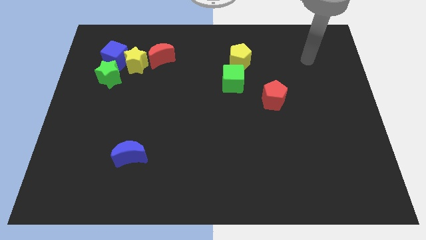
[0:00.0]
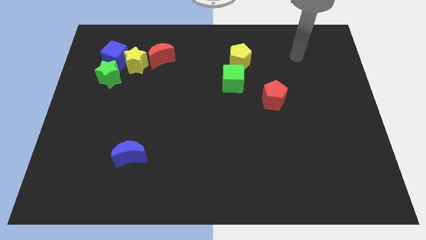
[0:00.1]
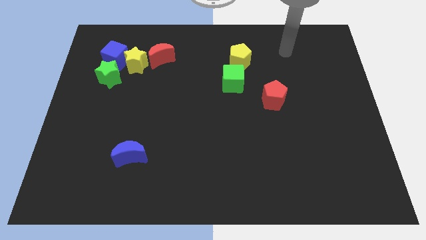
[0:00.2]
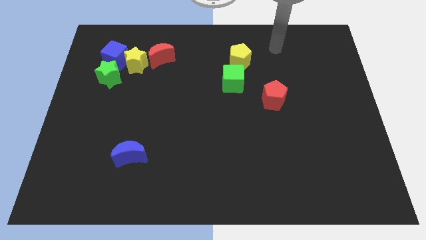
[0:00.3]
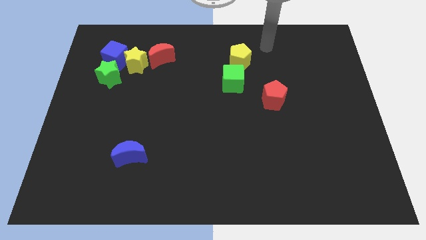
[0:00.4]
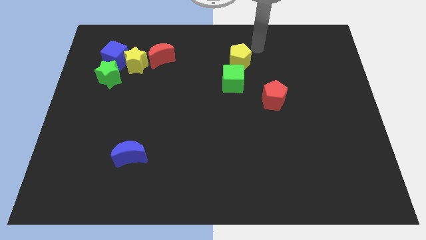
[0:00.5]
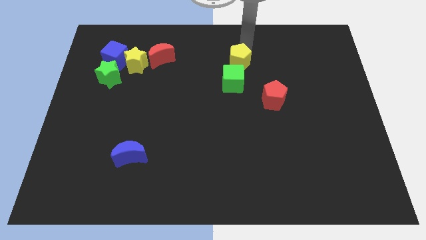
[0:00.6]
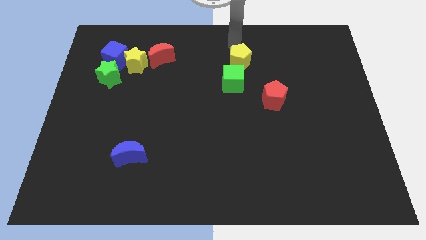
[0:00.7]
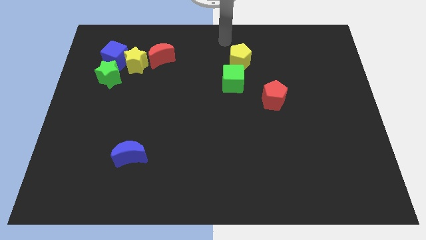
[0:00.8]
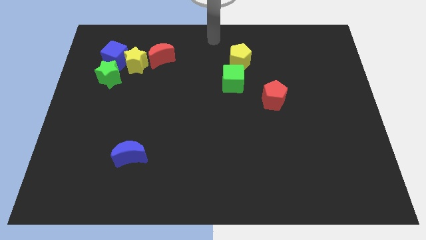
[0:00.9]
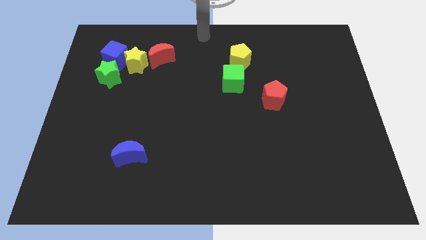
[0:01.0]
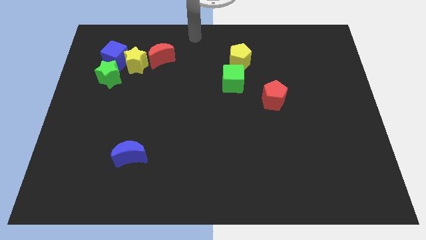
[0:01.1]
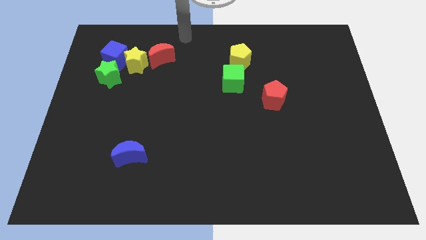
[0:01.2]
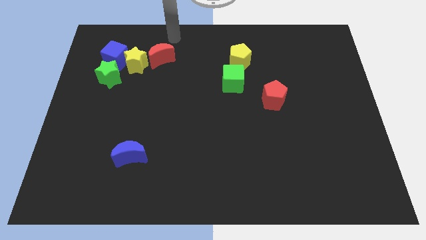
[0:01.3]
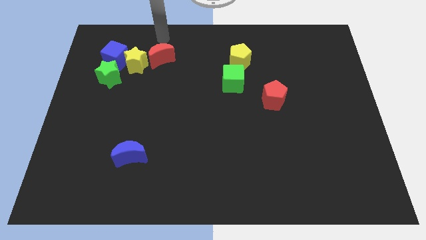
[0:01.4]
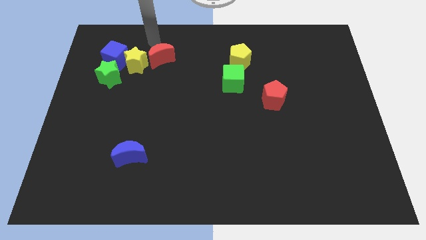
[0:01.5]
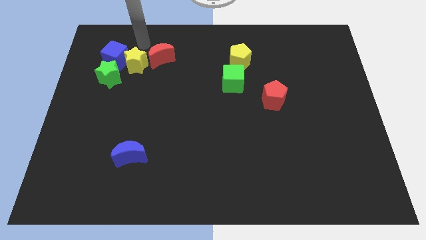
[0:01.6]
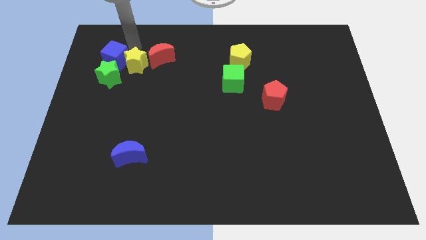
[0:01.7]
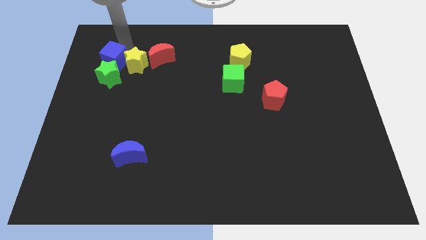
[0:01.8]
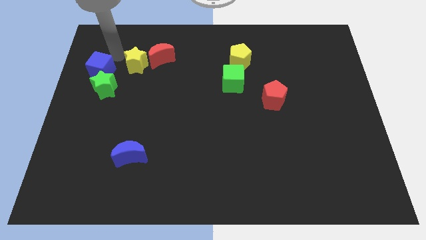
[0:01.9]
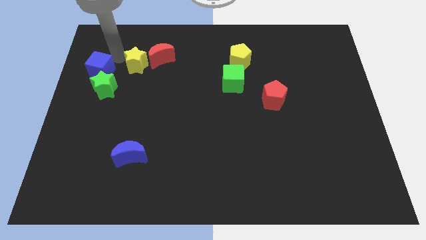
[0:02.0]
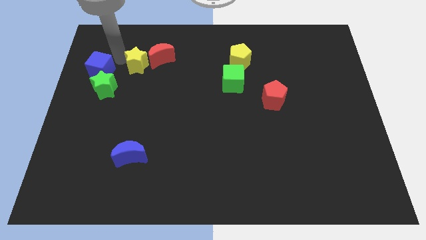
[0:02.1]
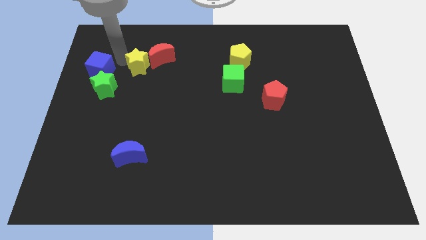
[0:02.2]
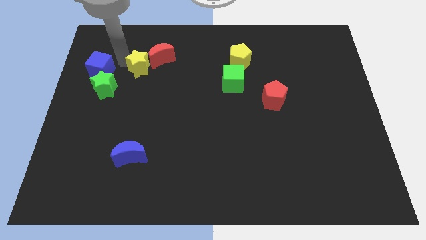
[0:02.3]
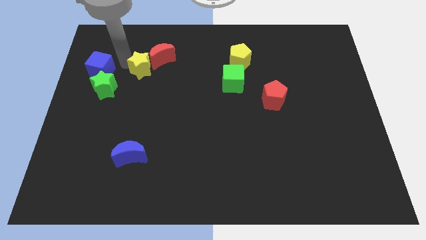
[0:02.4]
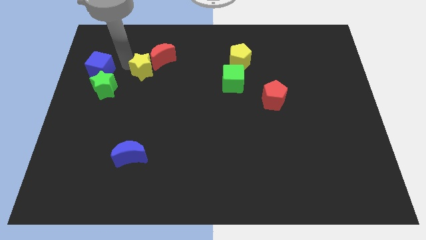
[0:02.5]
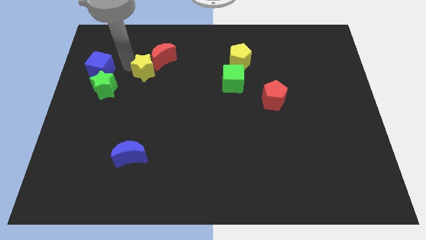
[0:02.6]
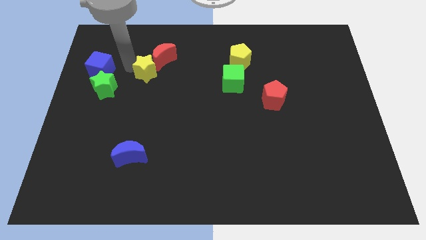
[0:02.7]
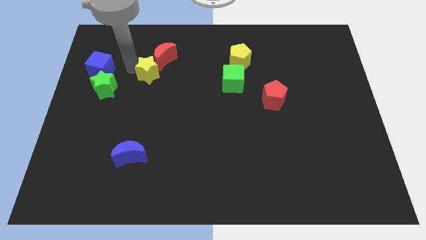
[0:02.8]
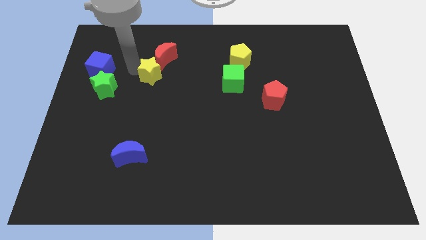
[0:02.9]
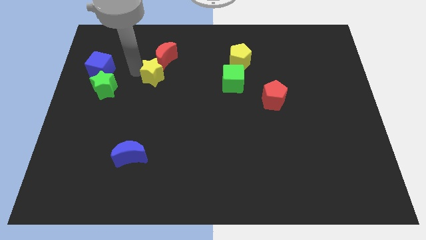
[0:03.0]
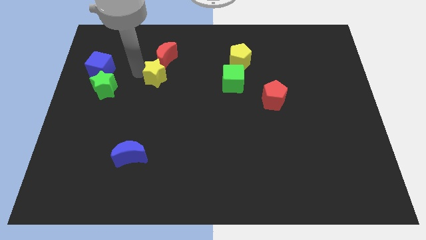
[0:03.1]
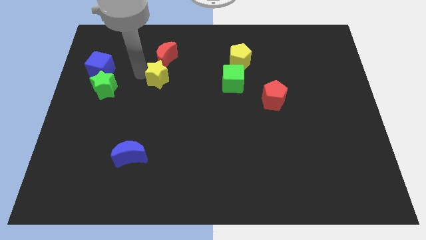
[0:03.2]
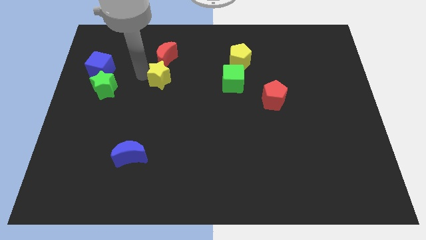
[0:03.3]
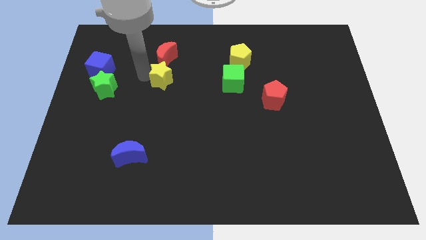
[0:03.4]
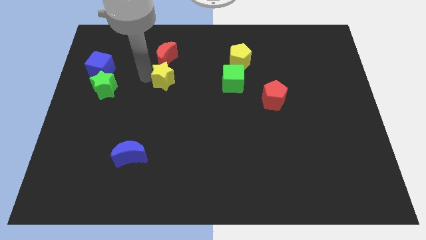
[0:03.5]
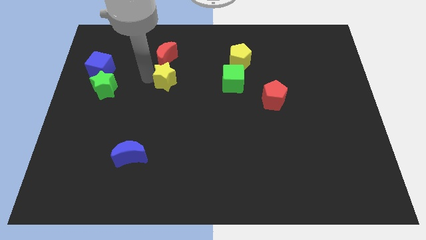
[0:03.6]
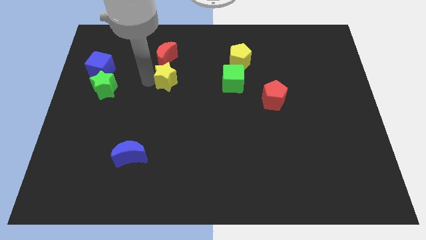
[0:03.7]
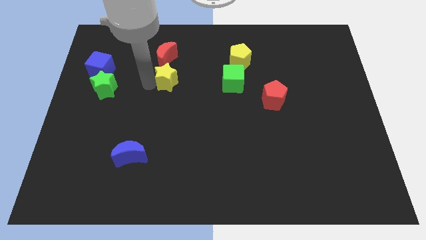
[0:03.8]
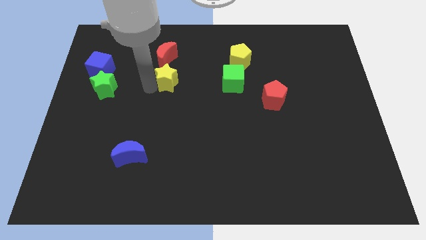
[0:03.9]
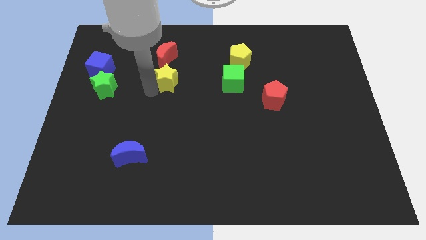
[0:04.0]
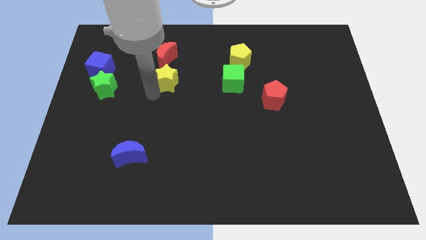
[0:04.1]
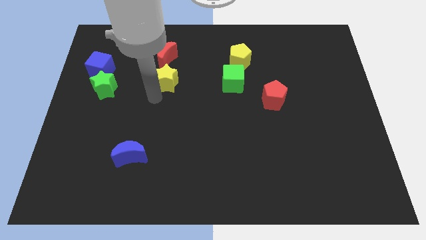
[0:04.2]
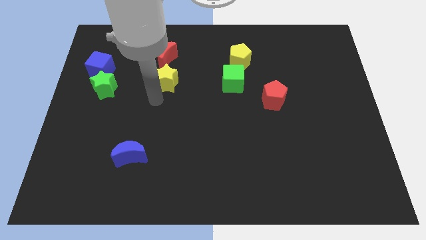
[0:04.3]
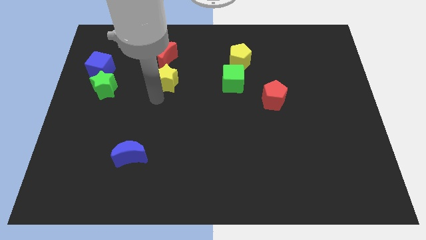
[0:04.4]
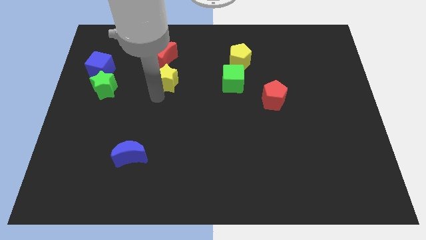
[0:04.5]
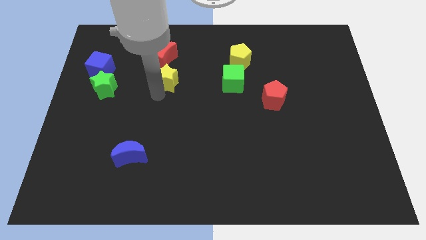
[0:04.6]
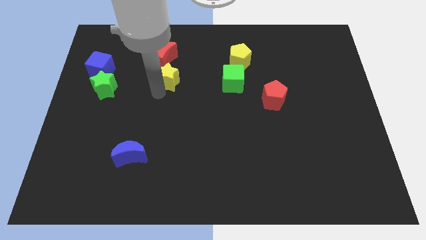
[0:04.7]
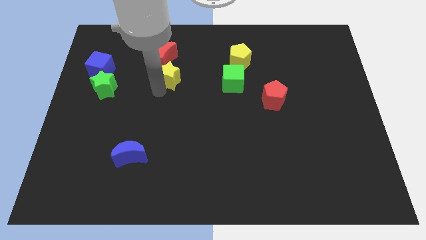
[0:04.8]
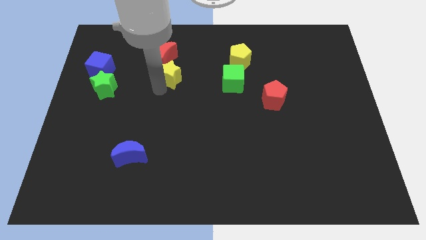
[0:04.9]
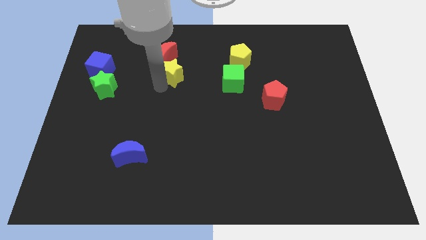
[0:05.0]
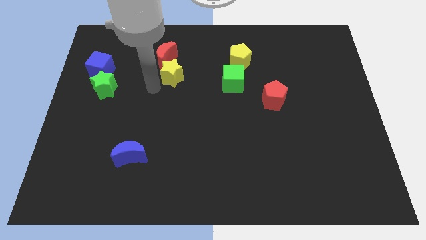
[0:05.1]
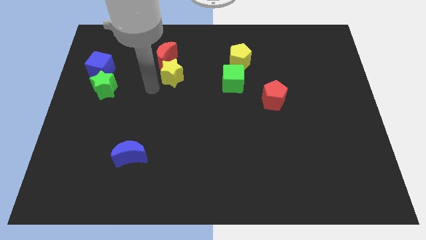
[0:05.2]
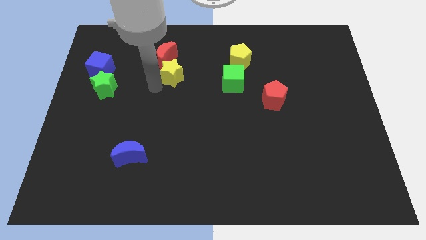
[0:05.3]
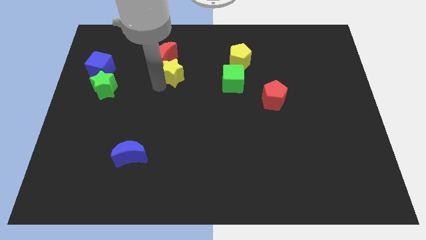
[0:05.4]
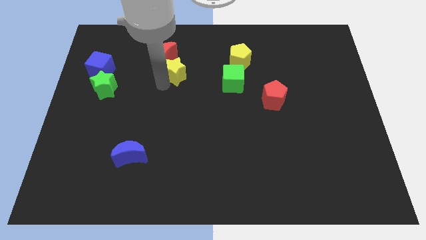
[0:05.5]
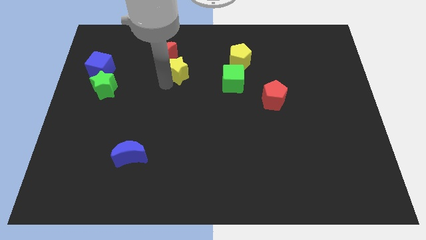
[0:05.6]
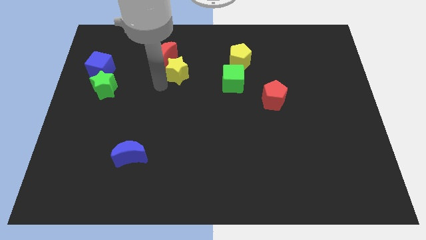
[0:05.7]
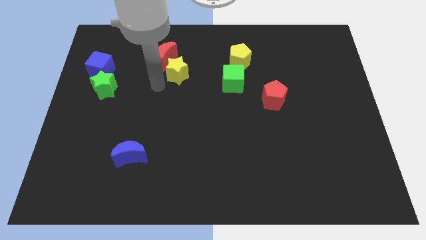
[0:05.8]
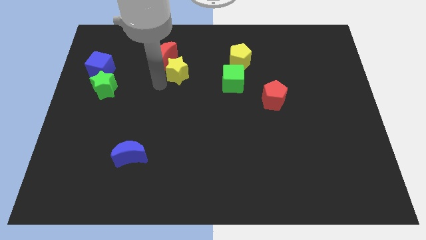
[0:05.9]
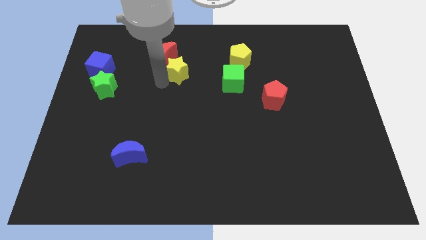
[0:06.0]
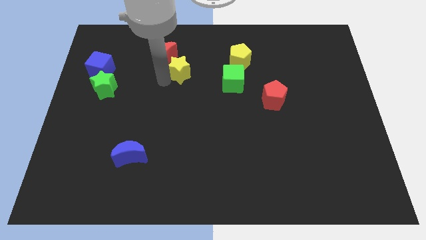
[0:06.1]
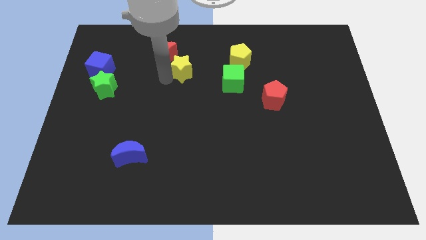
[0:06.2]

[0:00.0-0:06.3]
put the yellow star just left of the yellow pentagon
